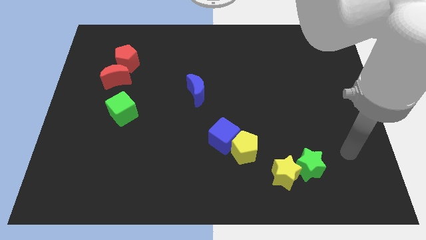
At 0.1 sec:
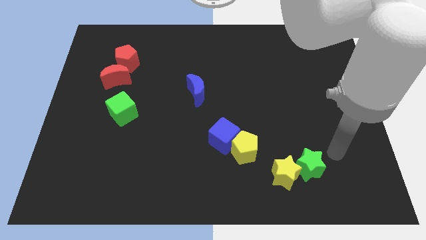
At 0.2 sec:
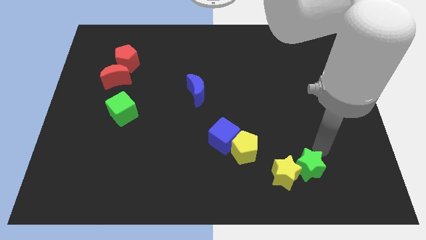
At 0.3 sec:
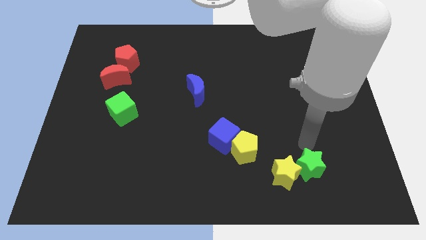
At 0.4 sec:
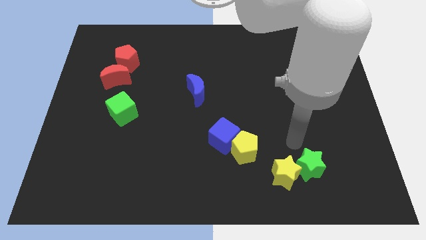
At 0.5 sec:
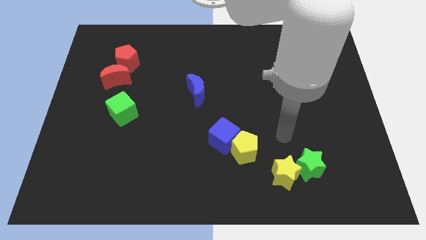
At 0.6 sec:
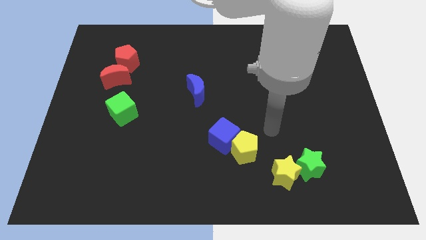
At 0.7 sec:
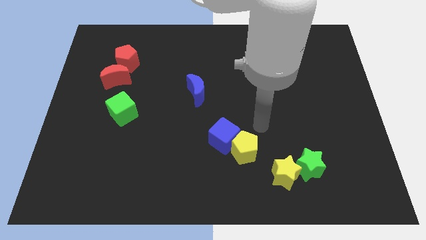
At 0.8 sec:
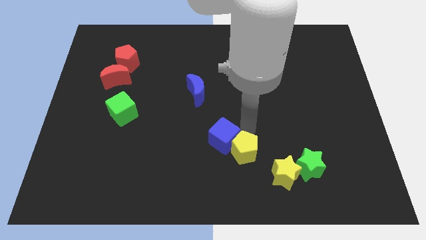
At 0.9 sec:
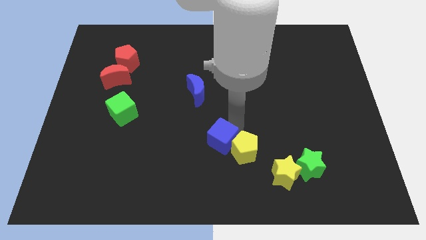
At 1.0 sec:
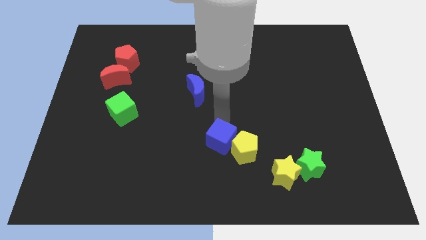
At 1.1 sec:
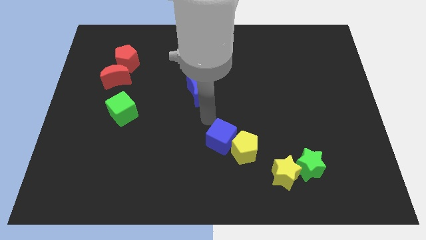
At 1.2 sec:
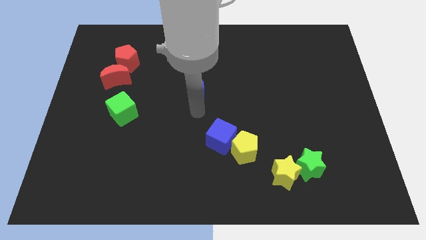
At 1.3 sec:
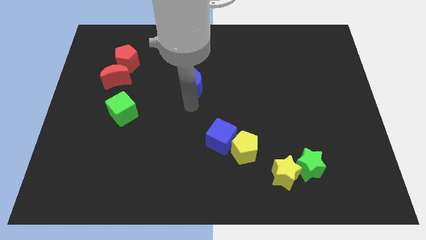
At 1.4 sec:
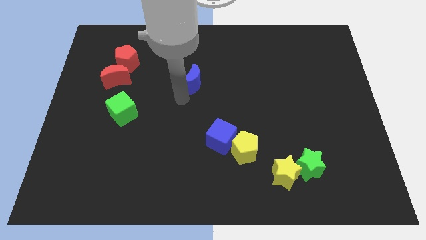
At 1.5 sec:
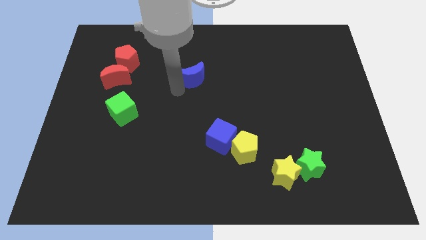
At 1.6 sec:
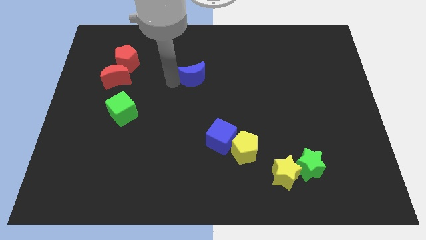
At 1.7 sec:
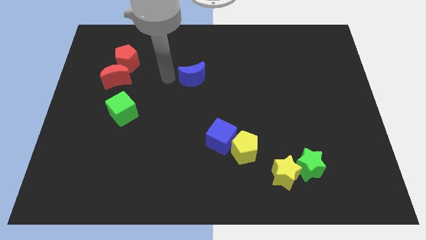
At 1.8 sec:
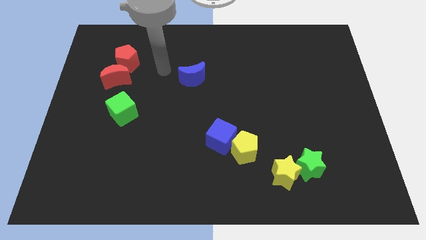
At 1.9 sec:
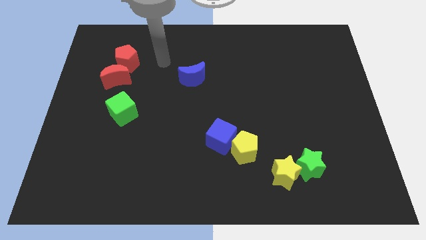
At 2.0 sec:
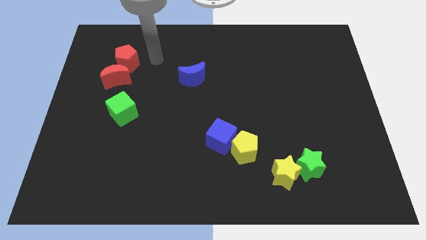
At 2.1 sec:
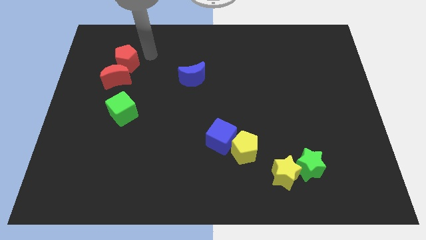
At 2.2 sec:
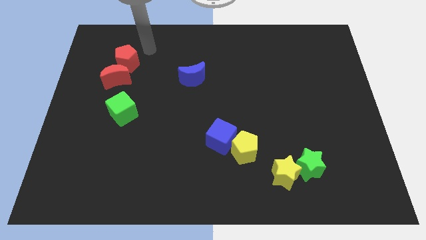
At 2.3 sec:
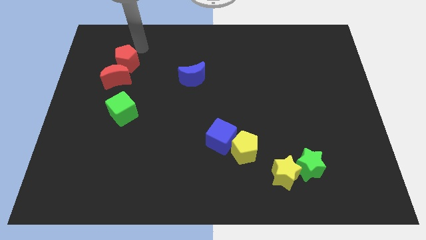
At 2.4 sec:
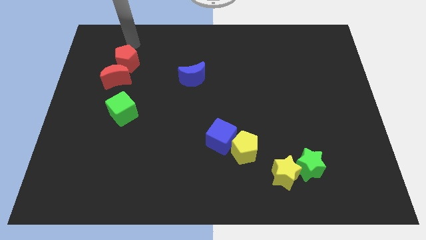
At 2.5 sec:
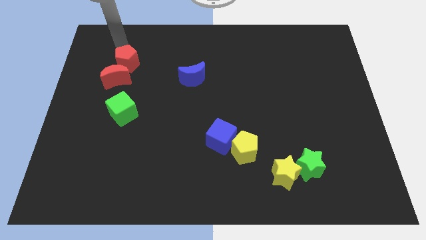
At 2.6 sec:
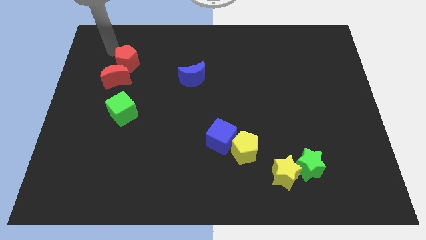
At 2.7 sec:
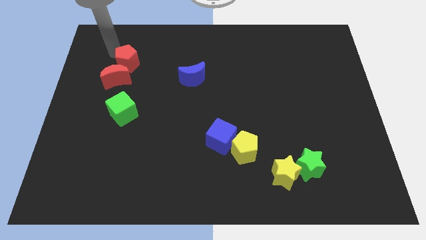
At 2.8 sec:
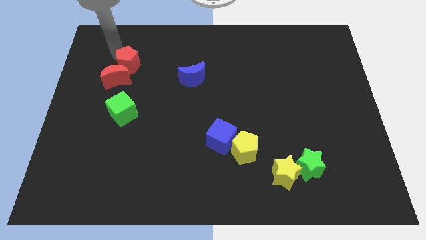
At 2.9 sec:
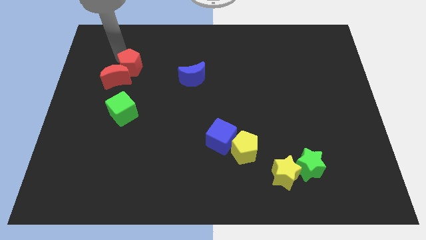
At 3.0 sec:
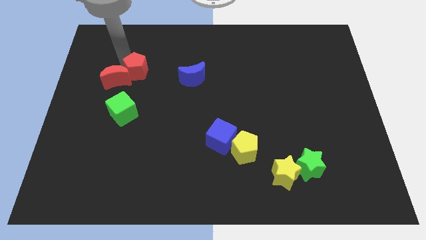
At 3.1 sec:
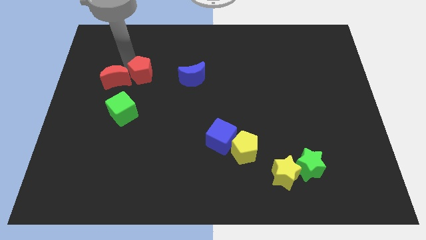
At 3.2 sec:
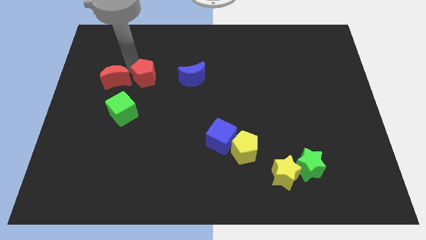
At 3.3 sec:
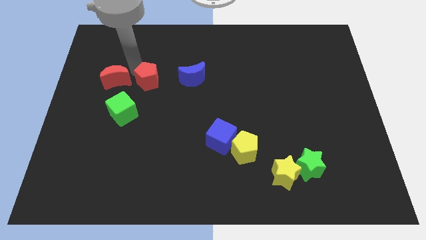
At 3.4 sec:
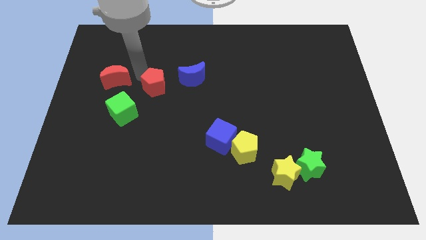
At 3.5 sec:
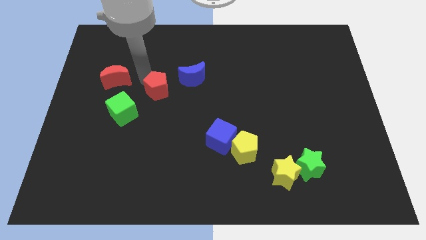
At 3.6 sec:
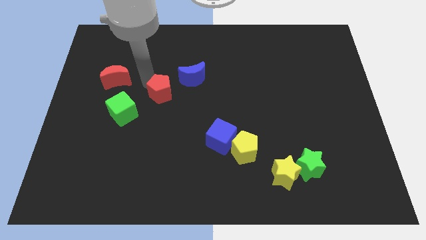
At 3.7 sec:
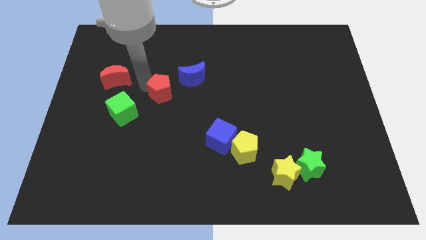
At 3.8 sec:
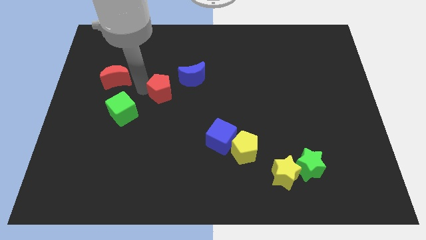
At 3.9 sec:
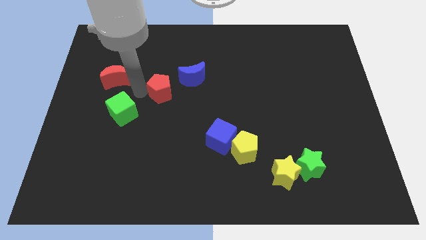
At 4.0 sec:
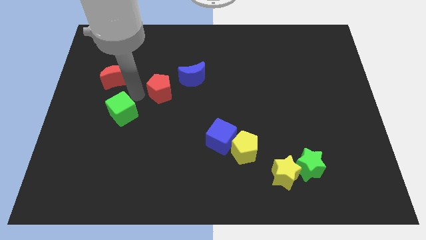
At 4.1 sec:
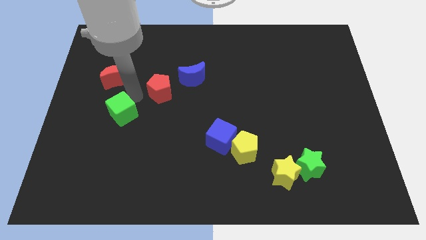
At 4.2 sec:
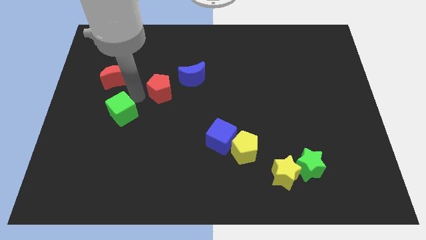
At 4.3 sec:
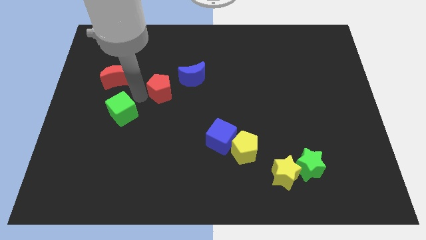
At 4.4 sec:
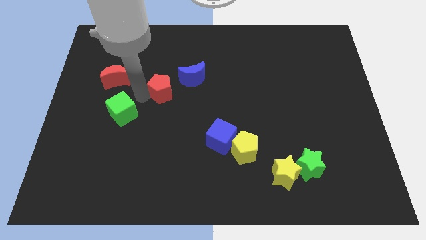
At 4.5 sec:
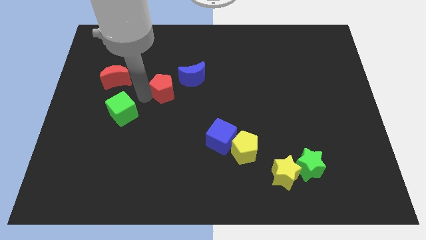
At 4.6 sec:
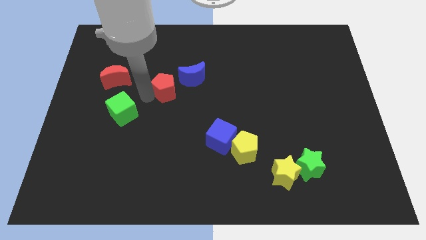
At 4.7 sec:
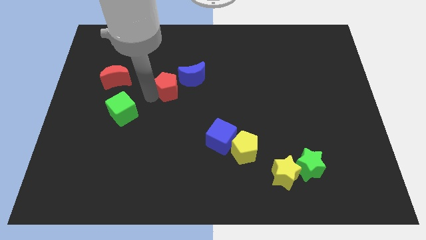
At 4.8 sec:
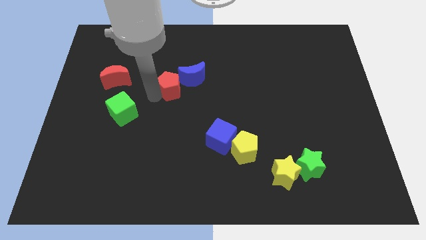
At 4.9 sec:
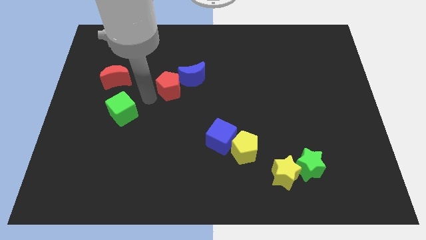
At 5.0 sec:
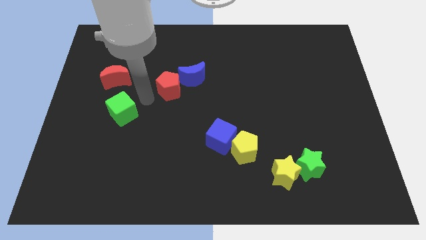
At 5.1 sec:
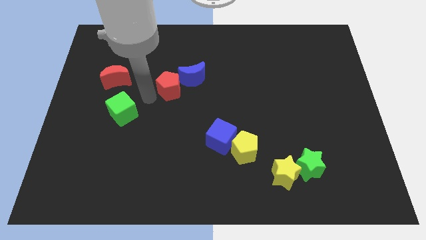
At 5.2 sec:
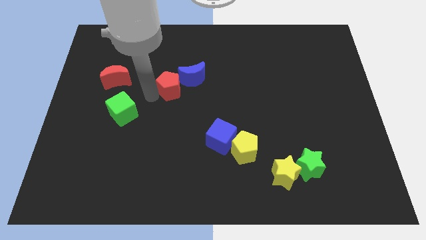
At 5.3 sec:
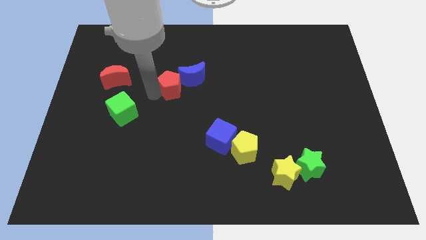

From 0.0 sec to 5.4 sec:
put the red pentagon to the blue moon

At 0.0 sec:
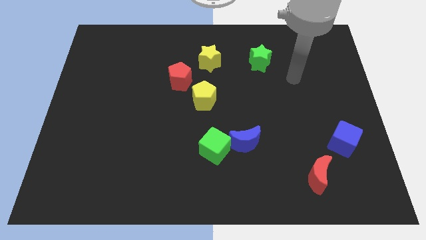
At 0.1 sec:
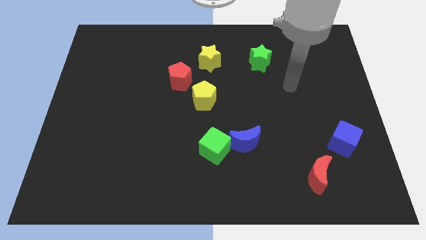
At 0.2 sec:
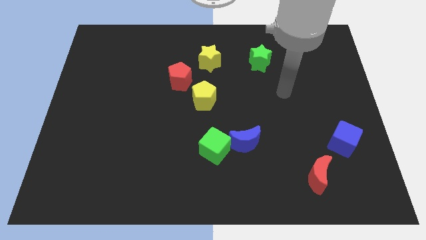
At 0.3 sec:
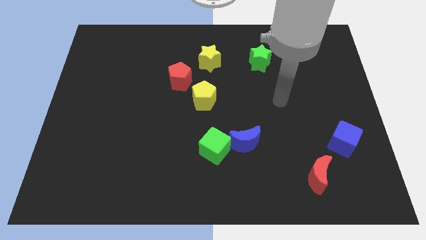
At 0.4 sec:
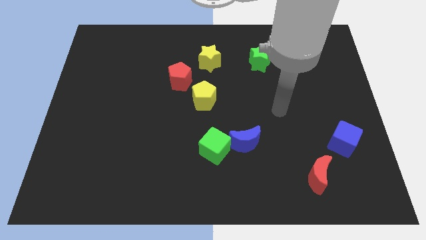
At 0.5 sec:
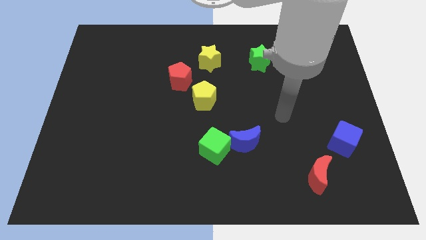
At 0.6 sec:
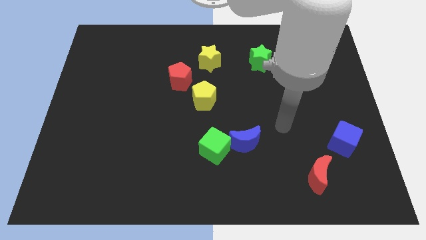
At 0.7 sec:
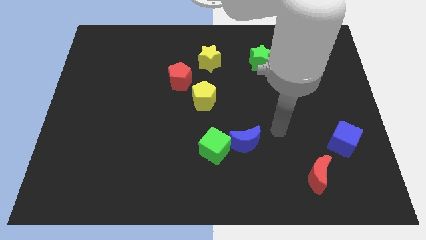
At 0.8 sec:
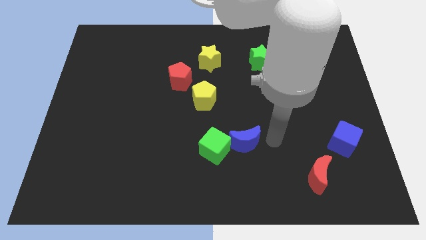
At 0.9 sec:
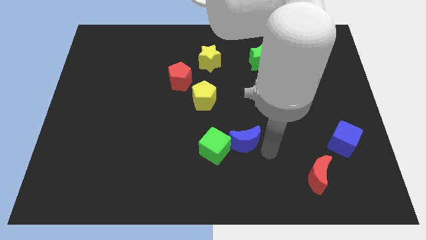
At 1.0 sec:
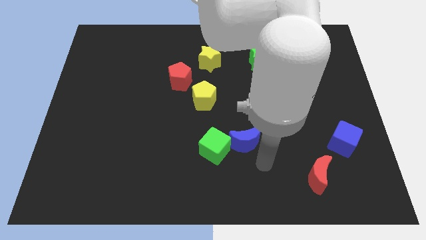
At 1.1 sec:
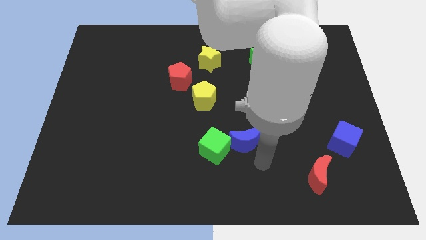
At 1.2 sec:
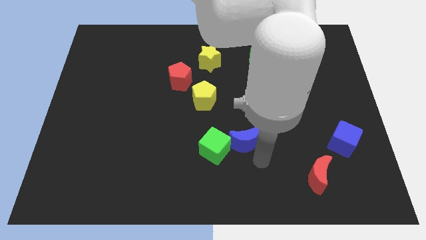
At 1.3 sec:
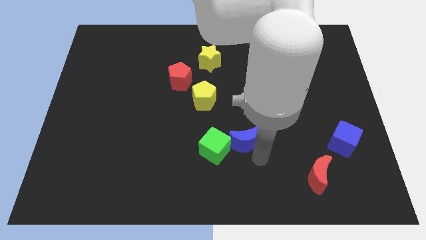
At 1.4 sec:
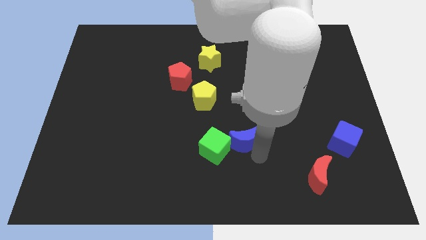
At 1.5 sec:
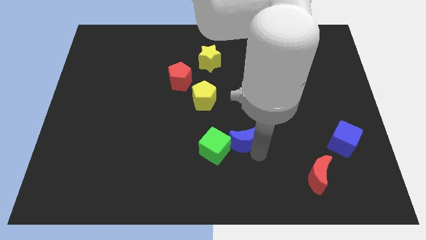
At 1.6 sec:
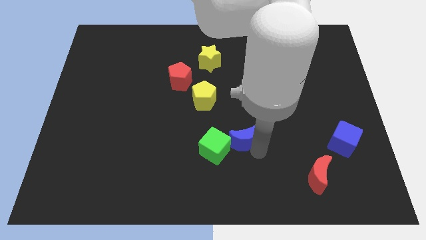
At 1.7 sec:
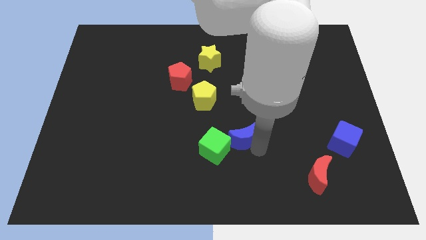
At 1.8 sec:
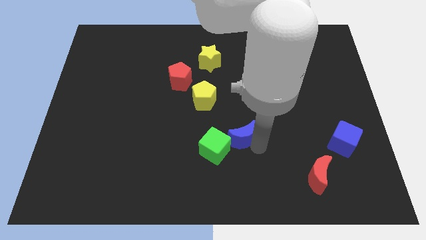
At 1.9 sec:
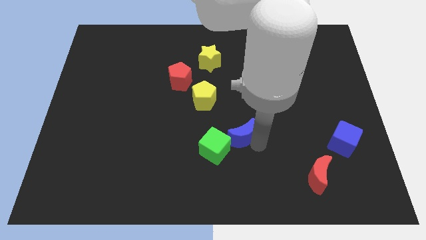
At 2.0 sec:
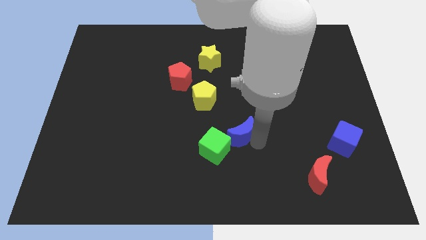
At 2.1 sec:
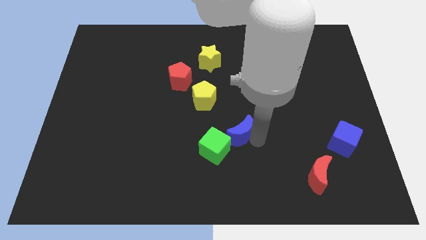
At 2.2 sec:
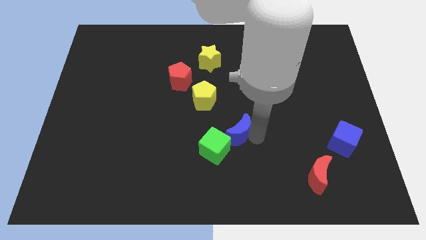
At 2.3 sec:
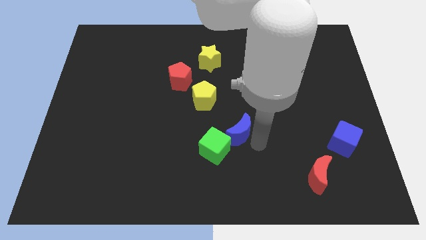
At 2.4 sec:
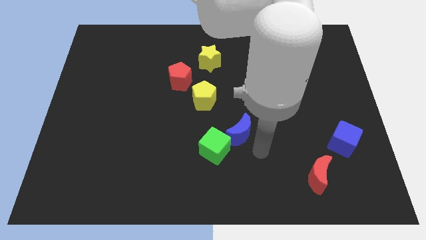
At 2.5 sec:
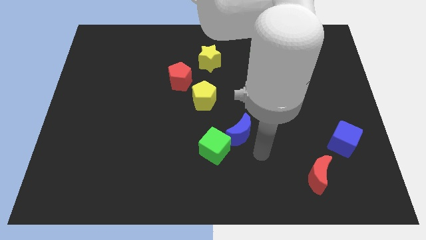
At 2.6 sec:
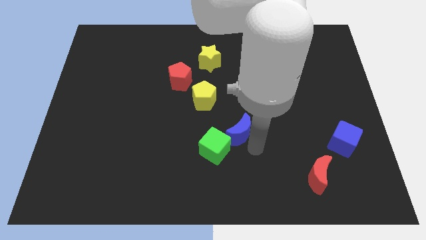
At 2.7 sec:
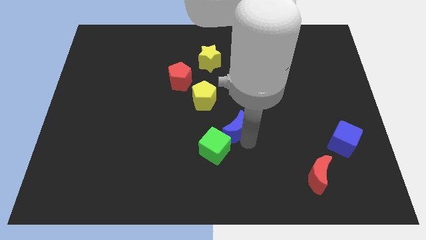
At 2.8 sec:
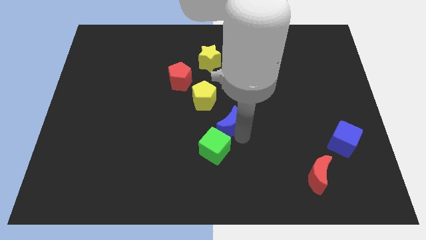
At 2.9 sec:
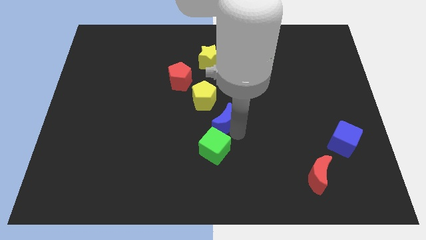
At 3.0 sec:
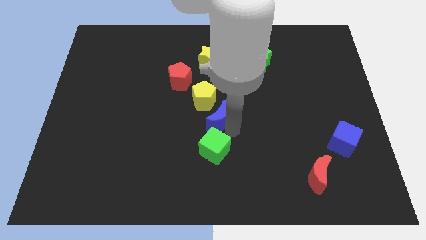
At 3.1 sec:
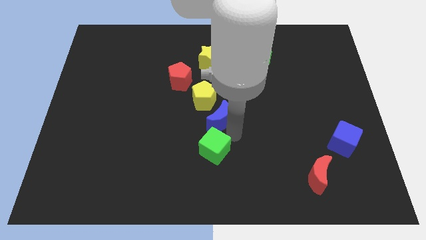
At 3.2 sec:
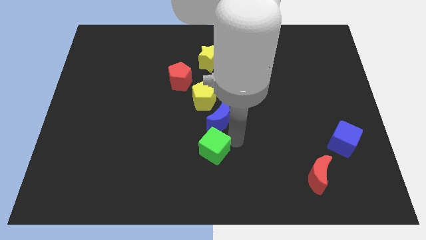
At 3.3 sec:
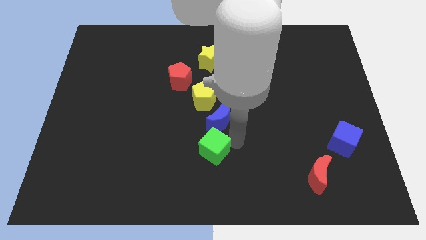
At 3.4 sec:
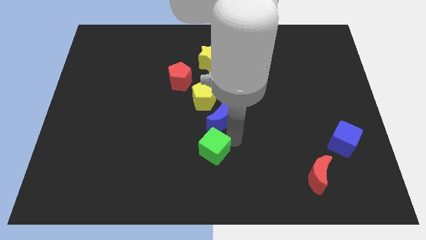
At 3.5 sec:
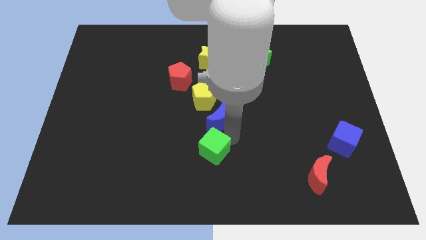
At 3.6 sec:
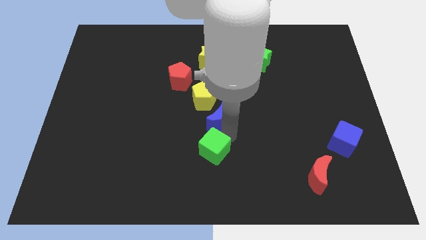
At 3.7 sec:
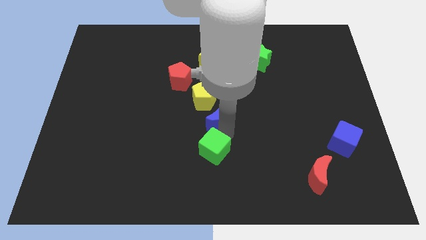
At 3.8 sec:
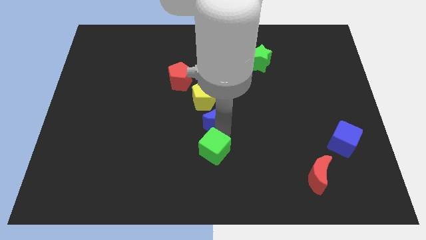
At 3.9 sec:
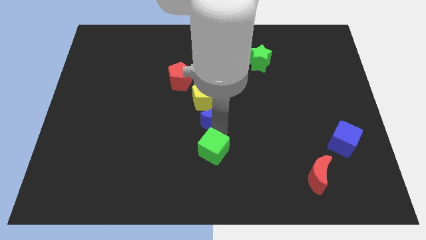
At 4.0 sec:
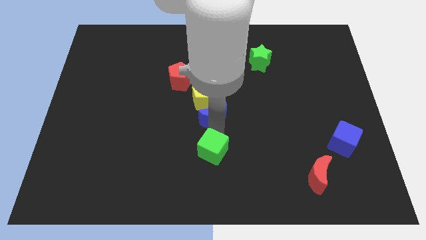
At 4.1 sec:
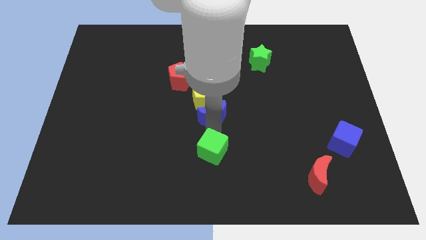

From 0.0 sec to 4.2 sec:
push the blue moon next to the yellow pentagon
